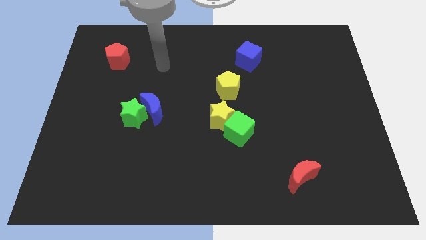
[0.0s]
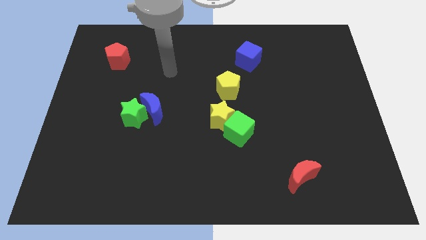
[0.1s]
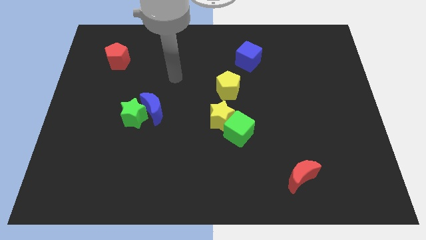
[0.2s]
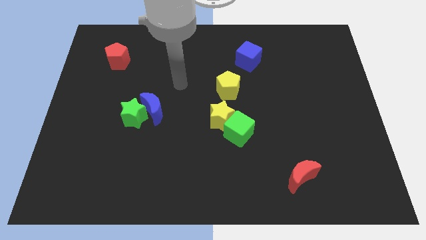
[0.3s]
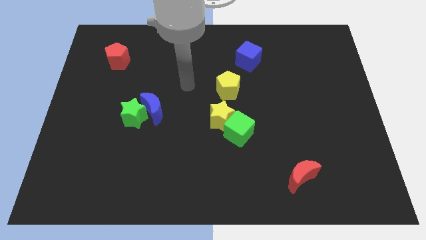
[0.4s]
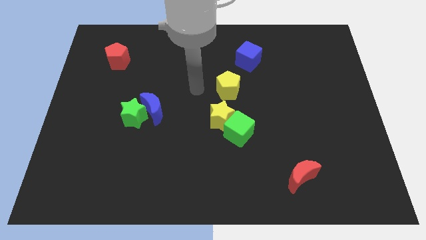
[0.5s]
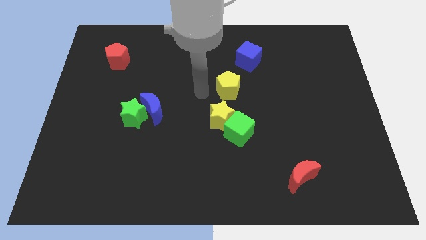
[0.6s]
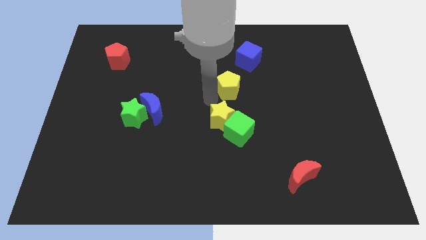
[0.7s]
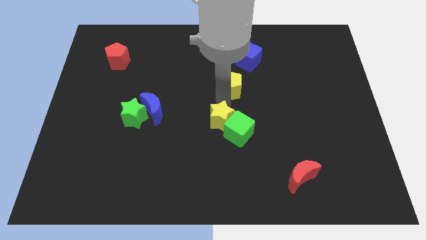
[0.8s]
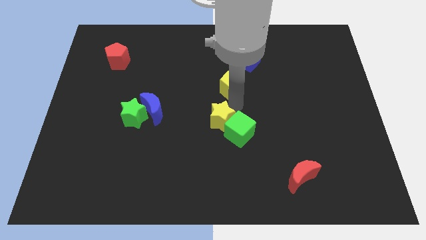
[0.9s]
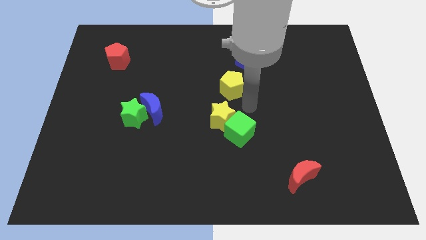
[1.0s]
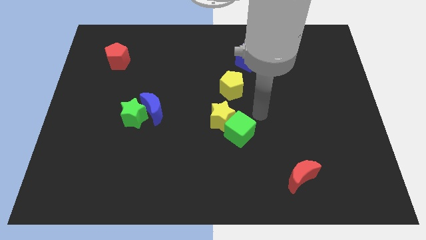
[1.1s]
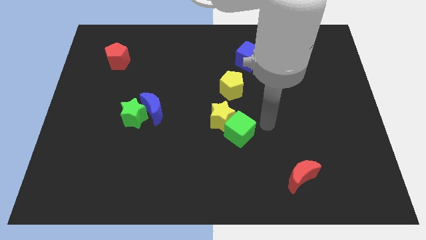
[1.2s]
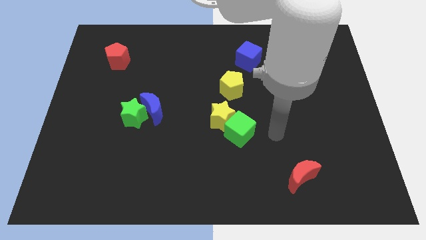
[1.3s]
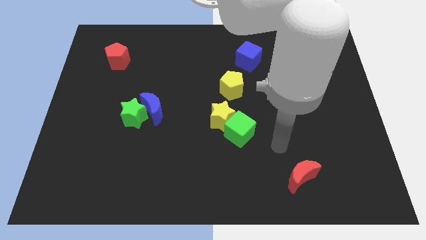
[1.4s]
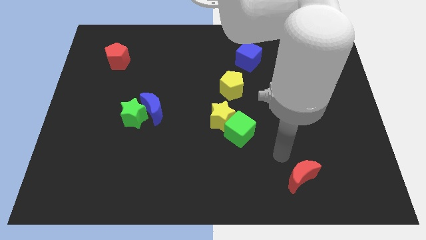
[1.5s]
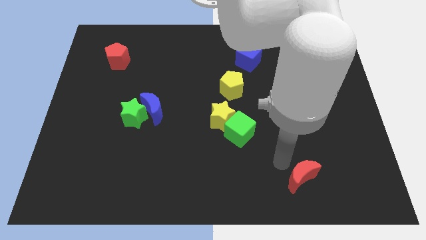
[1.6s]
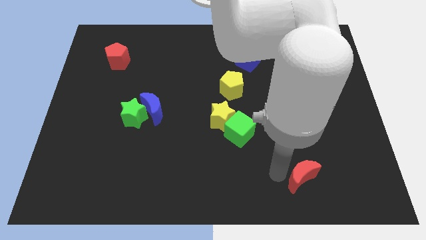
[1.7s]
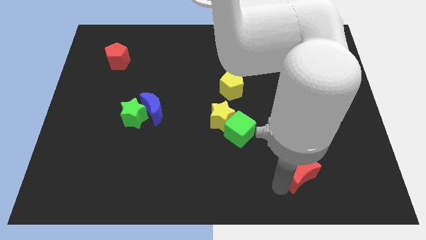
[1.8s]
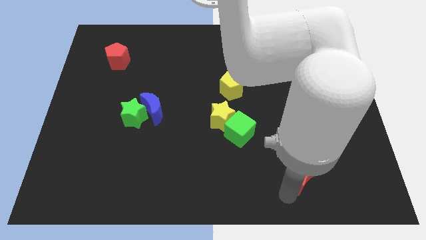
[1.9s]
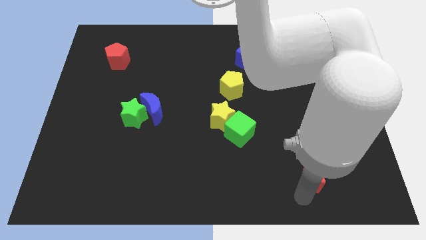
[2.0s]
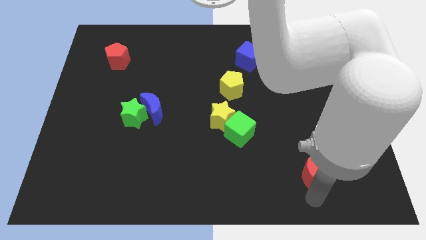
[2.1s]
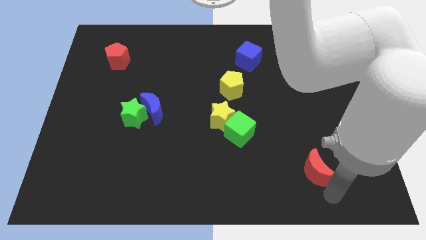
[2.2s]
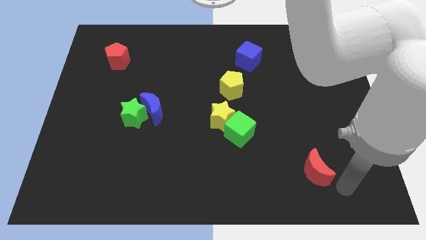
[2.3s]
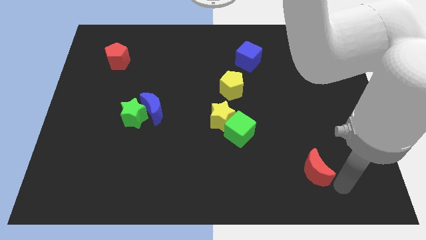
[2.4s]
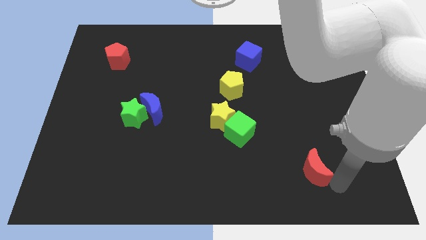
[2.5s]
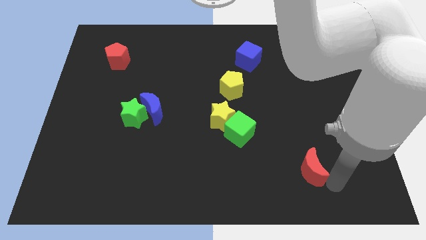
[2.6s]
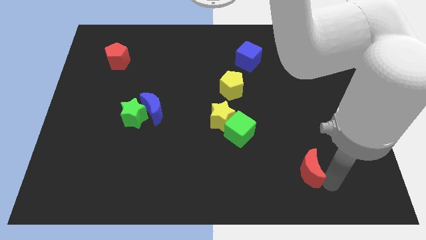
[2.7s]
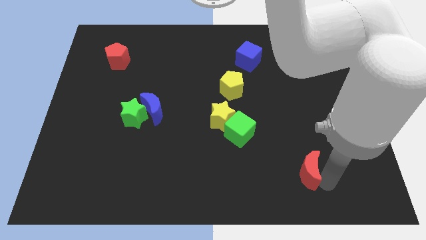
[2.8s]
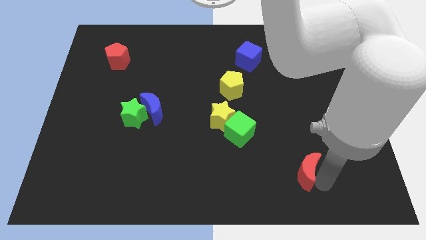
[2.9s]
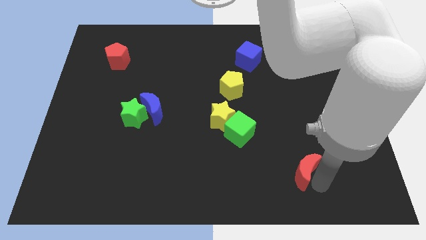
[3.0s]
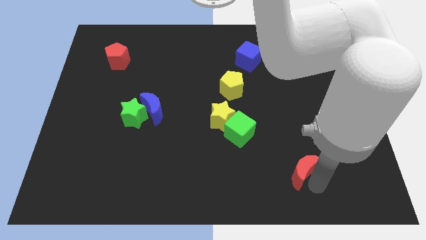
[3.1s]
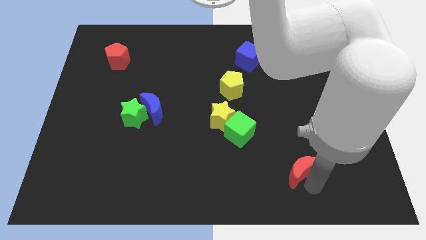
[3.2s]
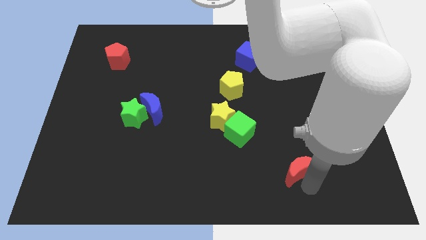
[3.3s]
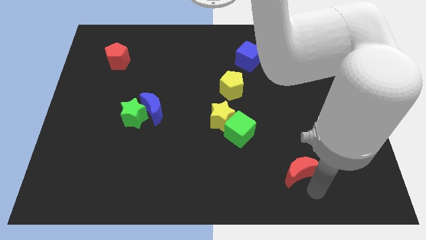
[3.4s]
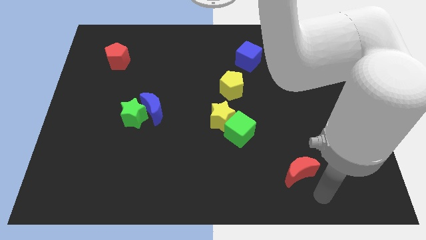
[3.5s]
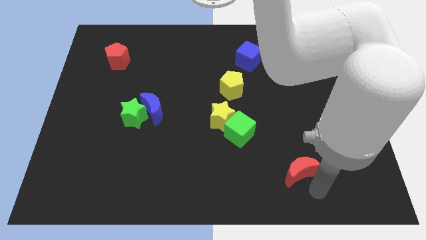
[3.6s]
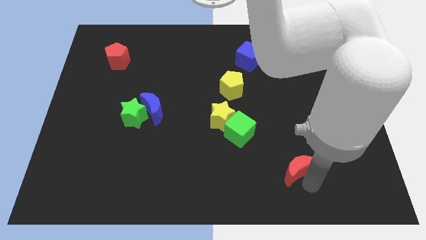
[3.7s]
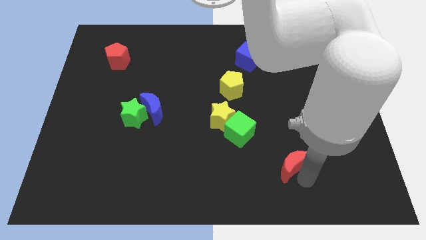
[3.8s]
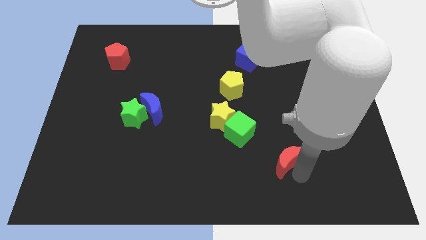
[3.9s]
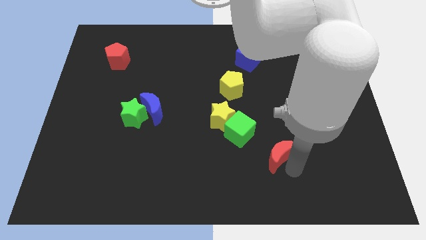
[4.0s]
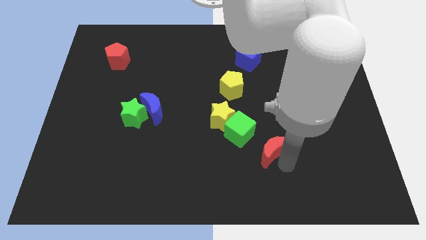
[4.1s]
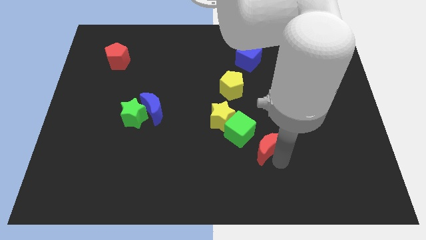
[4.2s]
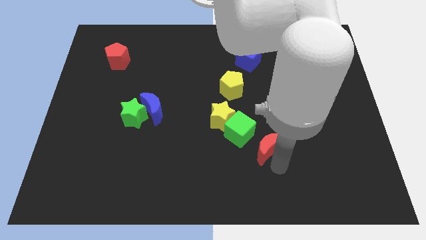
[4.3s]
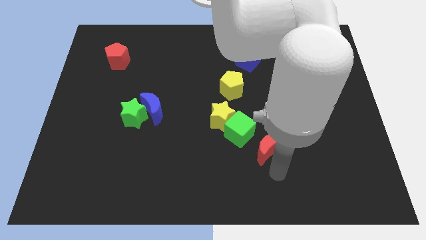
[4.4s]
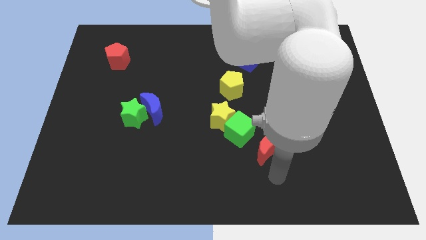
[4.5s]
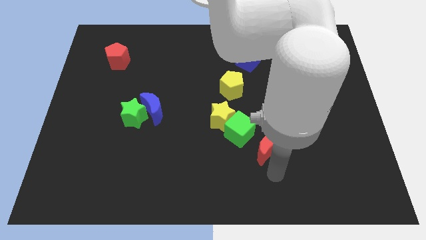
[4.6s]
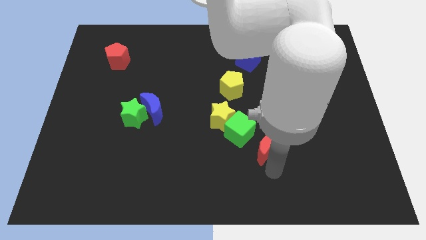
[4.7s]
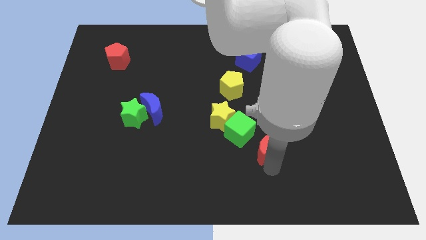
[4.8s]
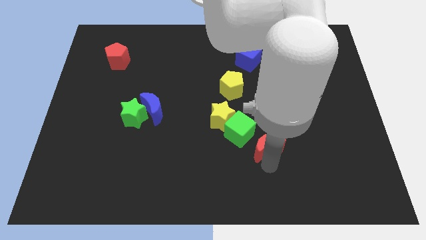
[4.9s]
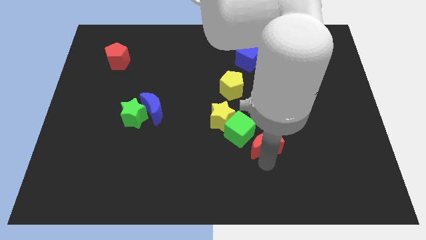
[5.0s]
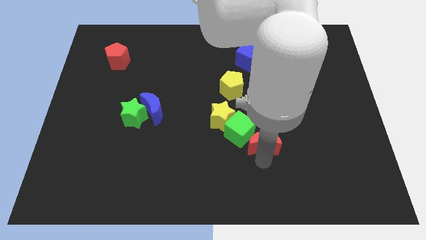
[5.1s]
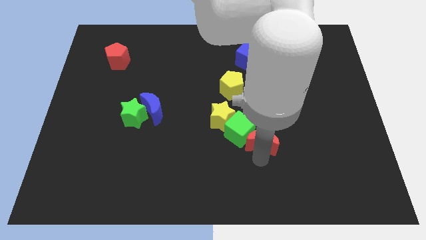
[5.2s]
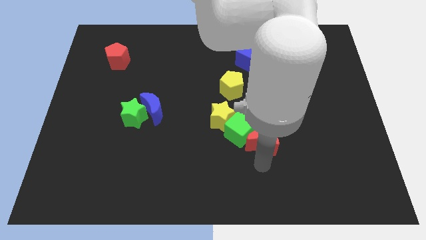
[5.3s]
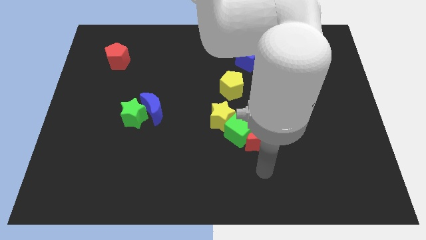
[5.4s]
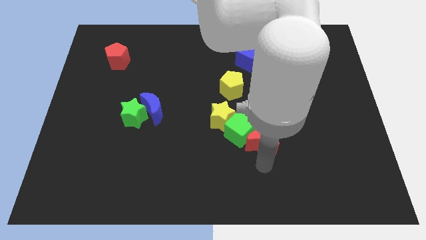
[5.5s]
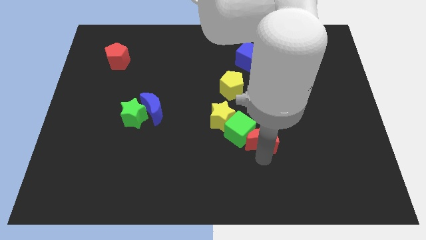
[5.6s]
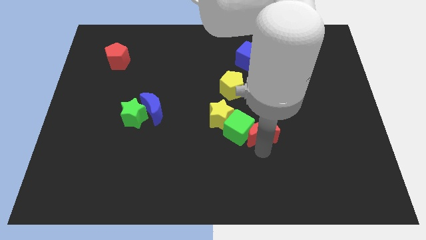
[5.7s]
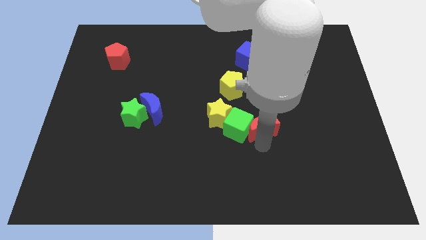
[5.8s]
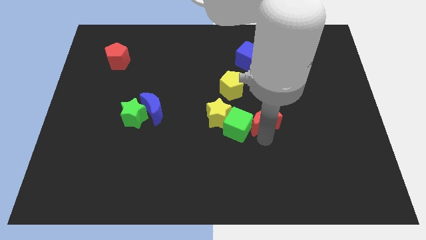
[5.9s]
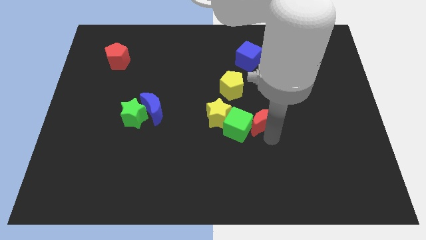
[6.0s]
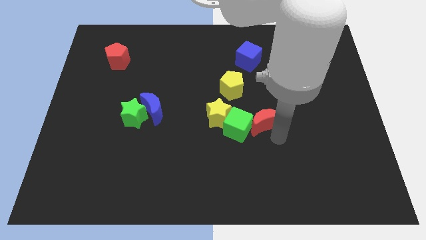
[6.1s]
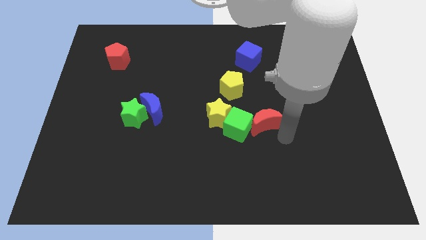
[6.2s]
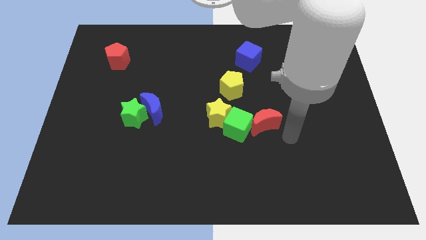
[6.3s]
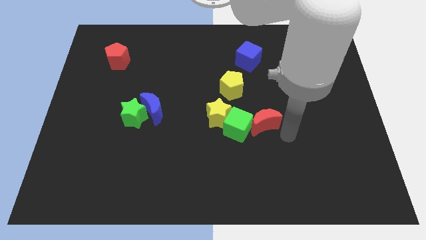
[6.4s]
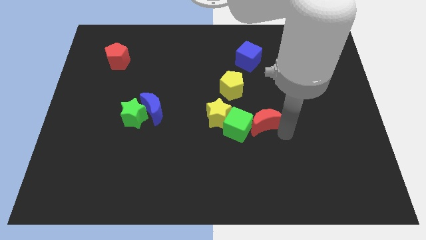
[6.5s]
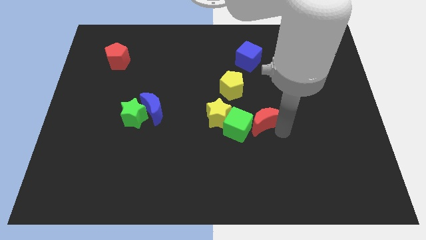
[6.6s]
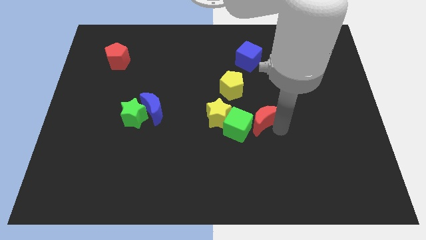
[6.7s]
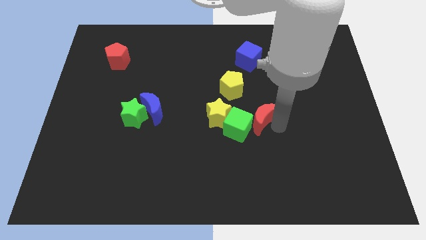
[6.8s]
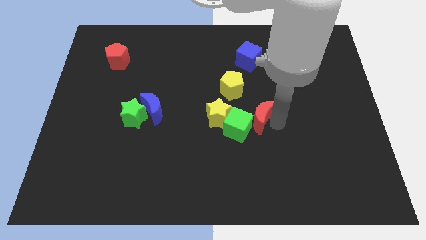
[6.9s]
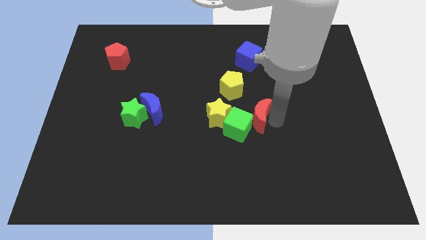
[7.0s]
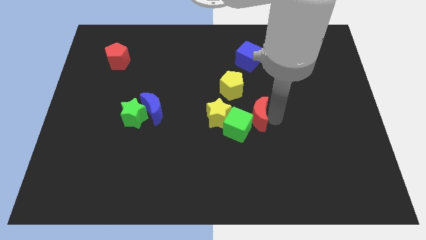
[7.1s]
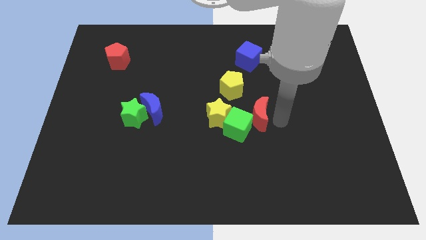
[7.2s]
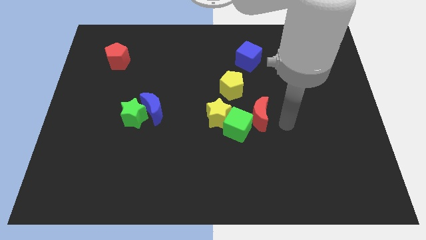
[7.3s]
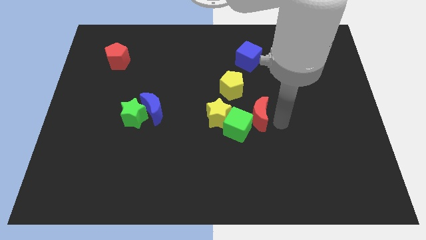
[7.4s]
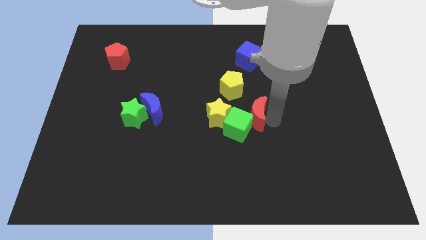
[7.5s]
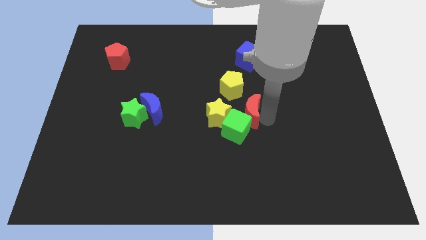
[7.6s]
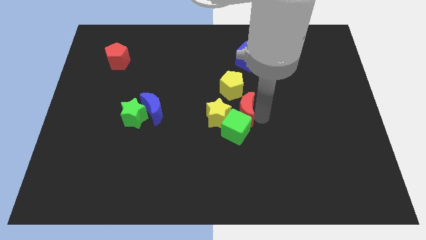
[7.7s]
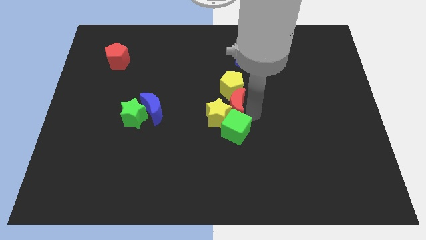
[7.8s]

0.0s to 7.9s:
push the red moon to the bottom left of the yellow pentagon
